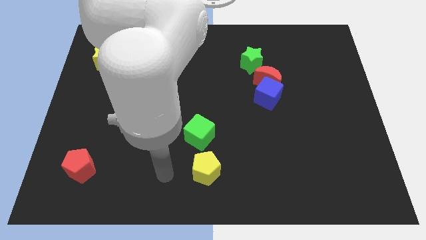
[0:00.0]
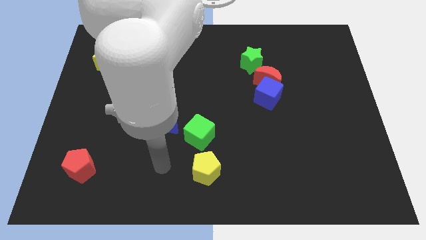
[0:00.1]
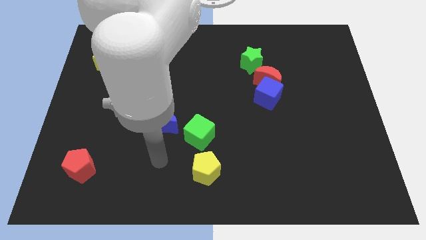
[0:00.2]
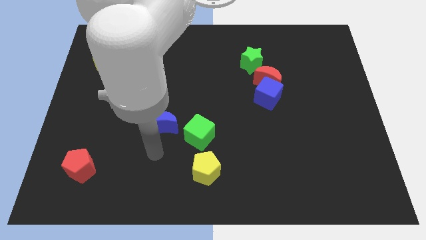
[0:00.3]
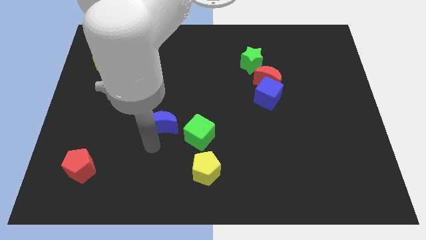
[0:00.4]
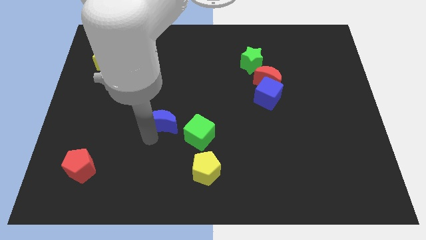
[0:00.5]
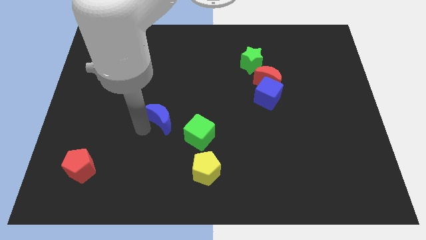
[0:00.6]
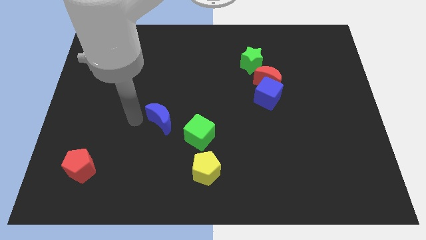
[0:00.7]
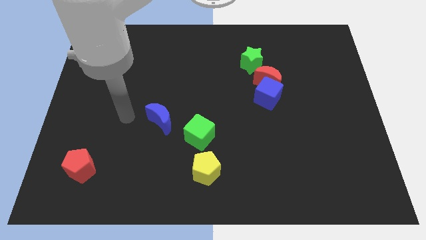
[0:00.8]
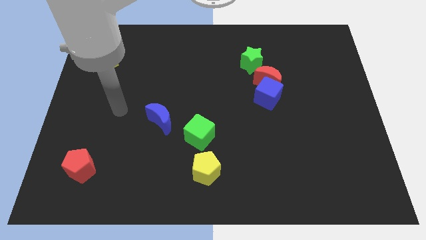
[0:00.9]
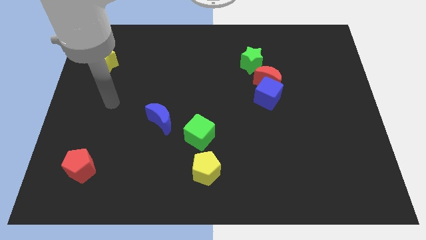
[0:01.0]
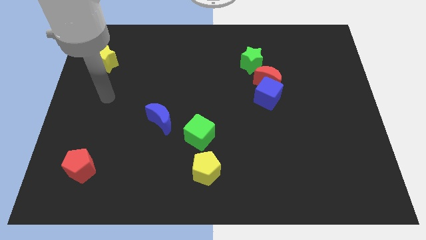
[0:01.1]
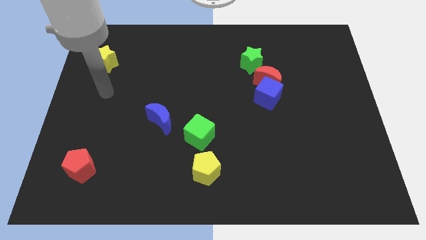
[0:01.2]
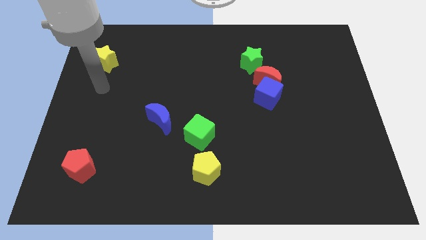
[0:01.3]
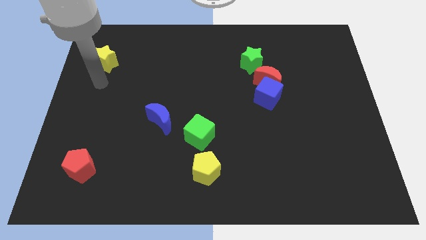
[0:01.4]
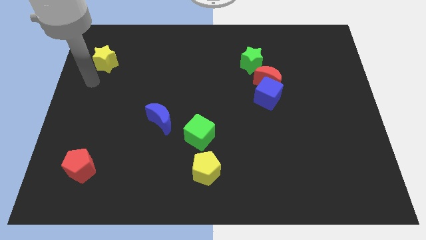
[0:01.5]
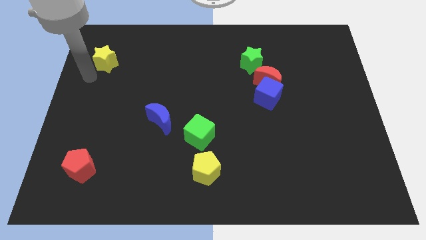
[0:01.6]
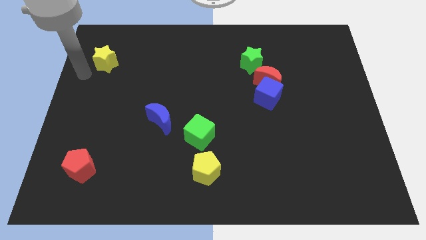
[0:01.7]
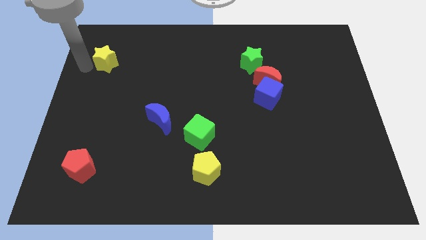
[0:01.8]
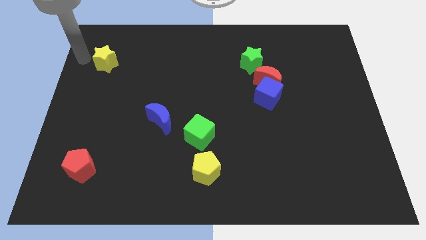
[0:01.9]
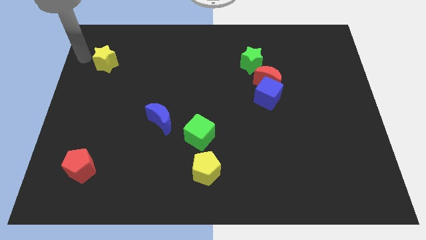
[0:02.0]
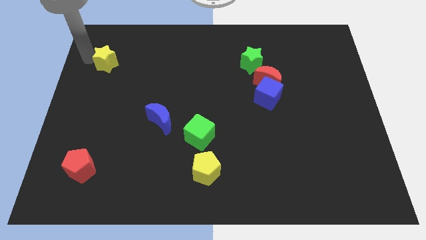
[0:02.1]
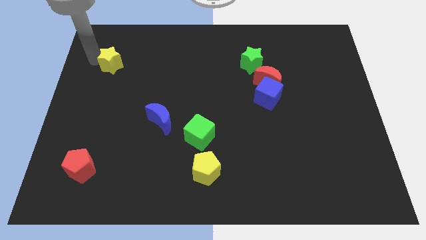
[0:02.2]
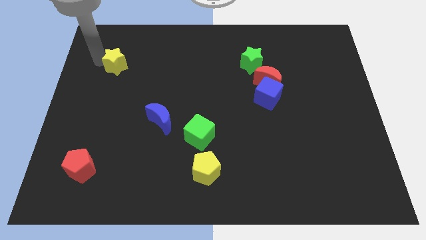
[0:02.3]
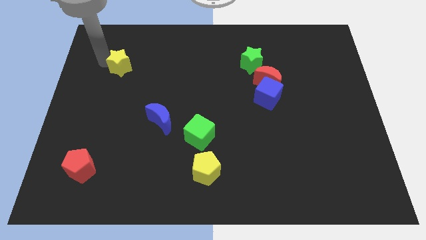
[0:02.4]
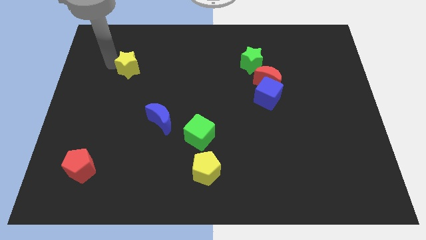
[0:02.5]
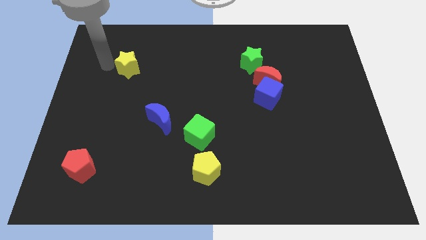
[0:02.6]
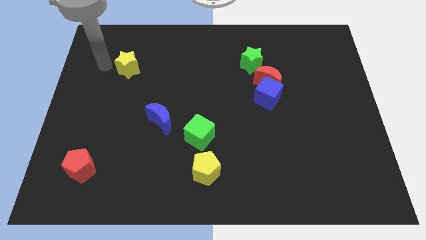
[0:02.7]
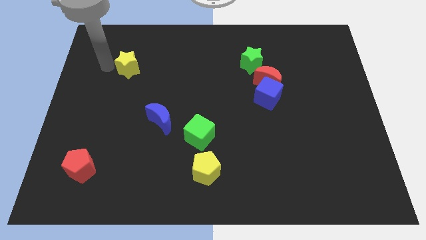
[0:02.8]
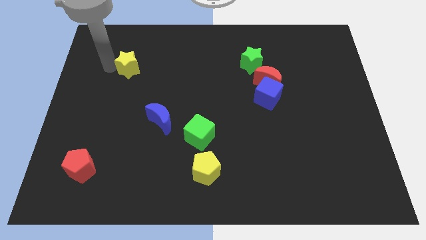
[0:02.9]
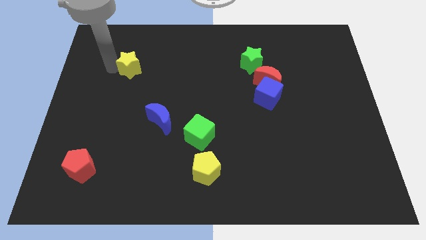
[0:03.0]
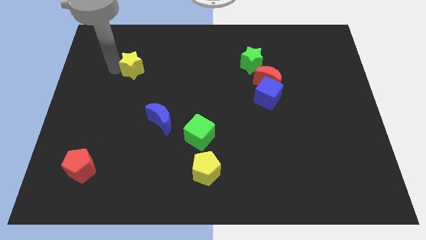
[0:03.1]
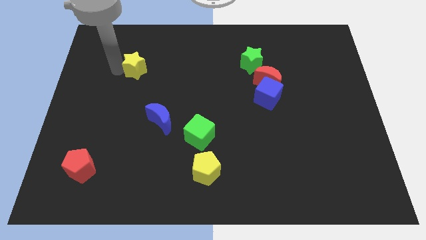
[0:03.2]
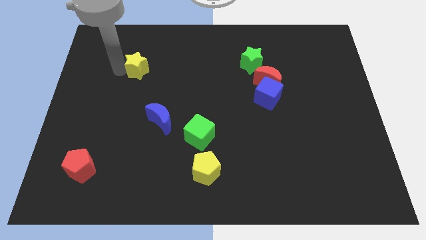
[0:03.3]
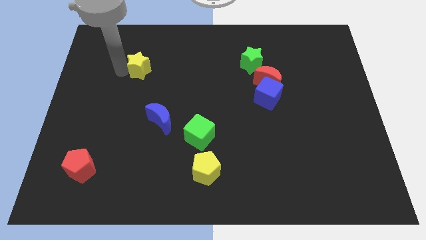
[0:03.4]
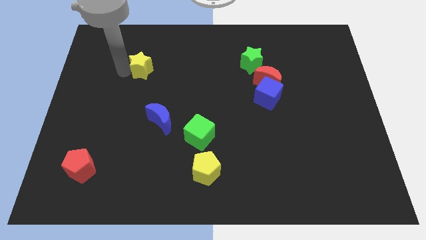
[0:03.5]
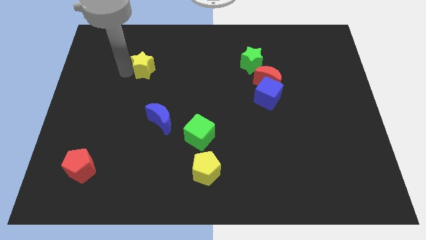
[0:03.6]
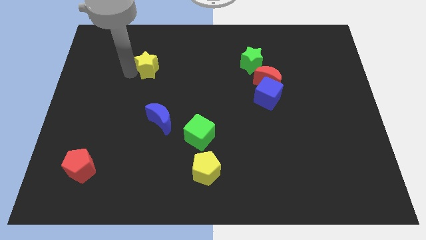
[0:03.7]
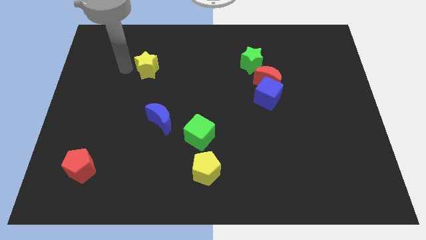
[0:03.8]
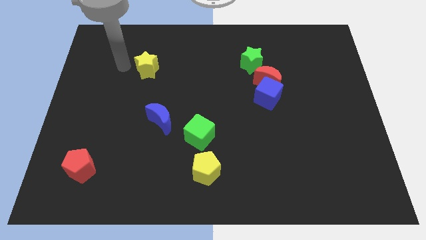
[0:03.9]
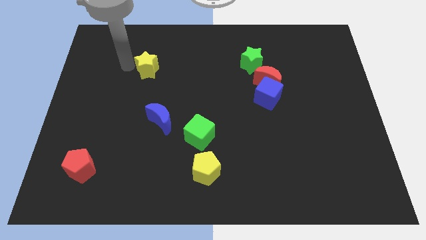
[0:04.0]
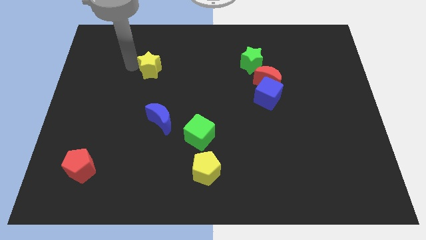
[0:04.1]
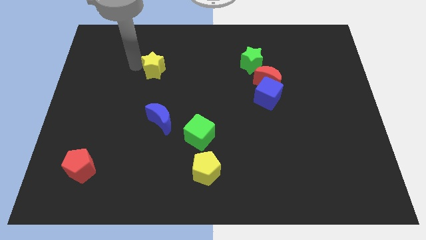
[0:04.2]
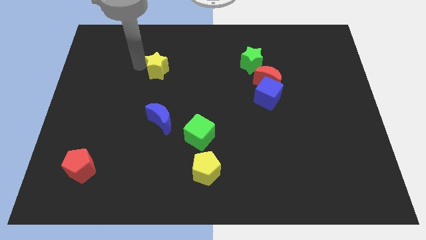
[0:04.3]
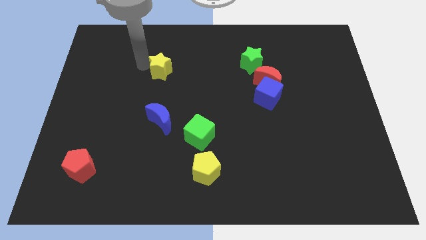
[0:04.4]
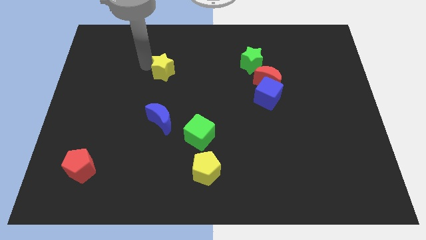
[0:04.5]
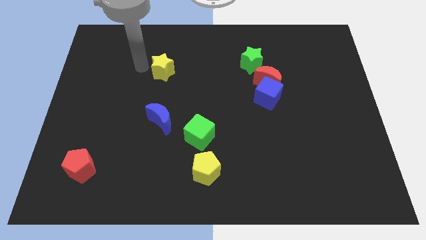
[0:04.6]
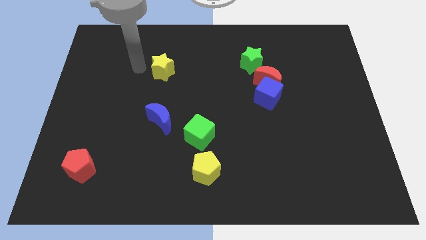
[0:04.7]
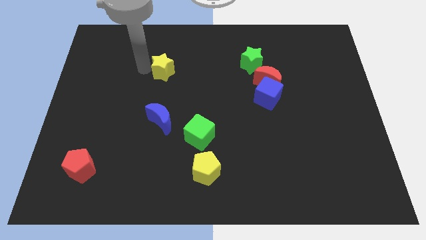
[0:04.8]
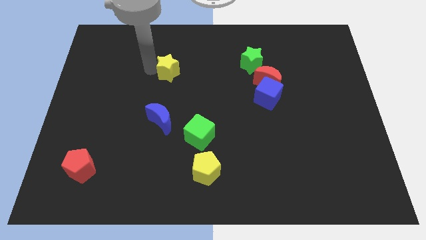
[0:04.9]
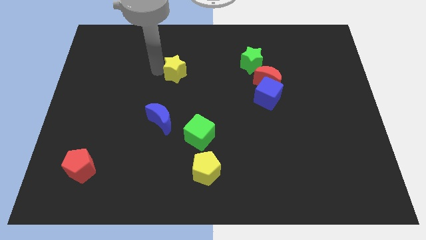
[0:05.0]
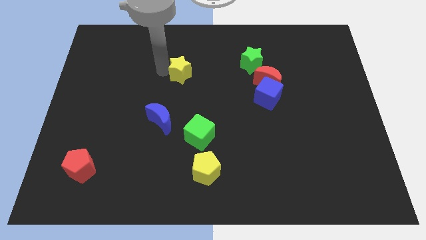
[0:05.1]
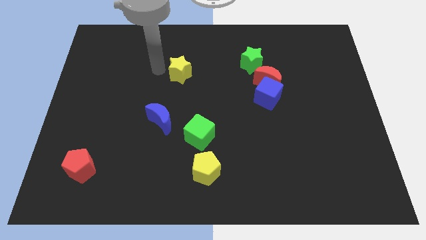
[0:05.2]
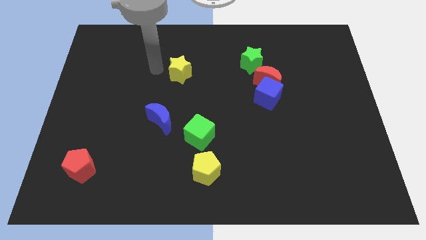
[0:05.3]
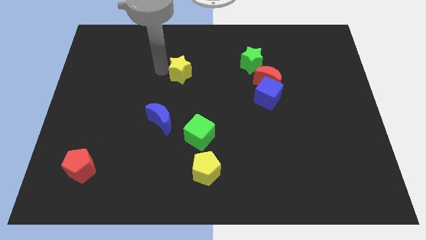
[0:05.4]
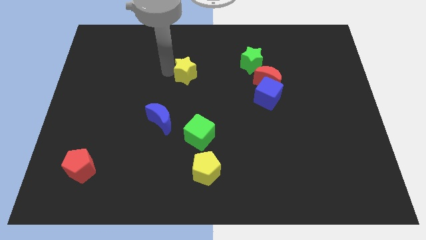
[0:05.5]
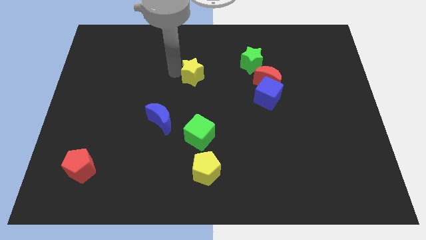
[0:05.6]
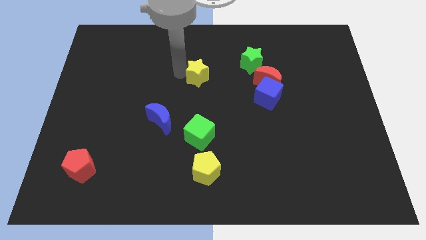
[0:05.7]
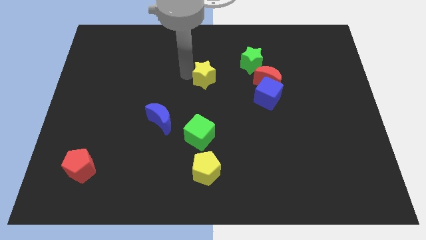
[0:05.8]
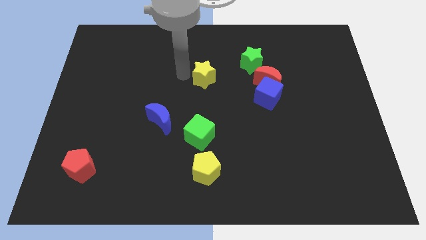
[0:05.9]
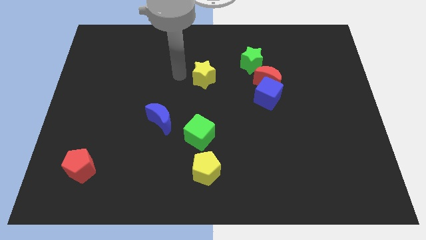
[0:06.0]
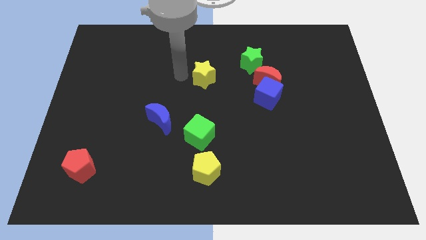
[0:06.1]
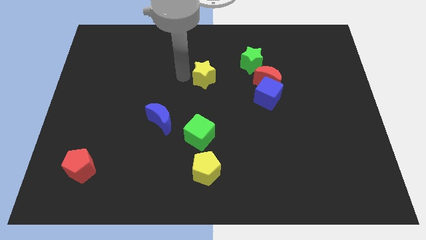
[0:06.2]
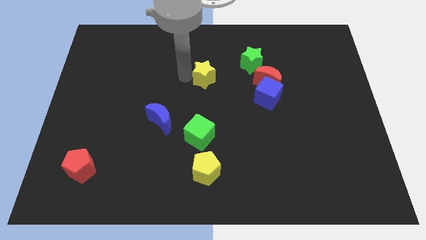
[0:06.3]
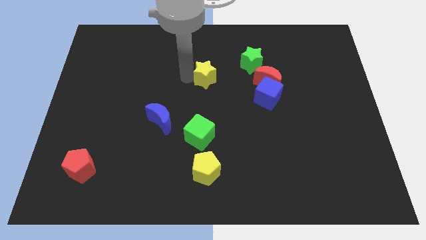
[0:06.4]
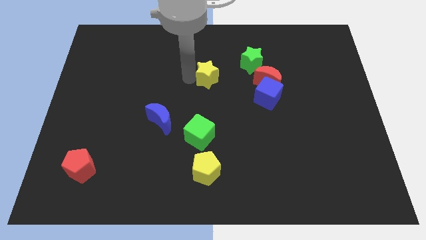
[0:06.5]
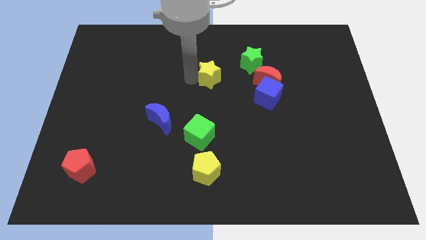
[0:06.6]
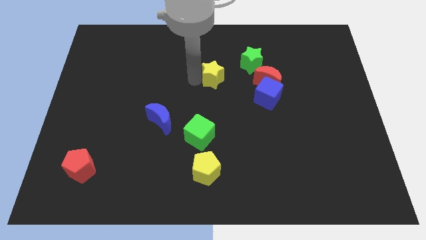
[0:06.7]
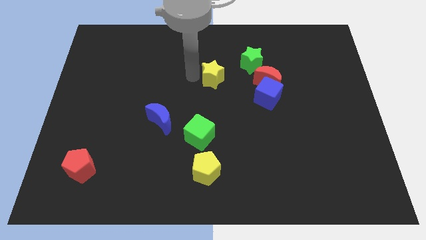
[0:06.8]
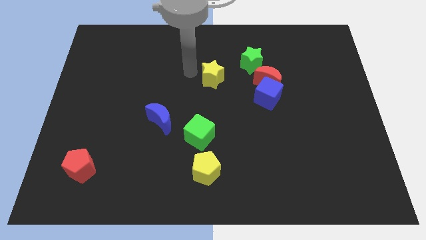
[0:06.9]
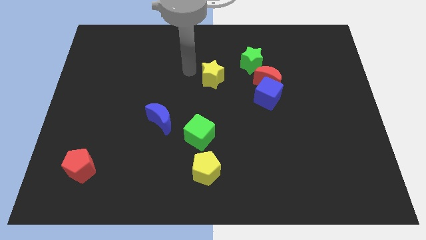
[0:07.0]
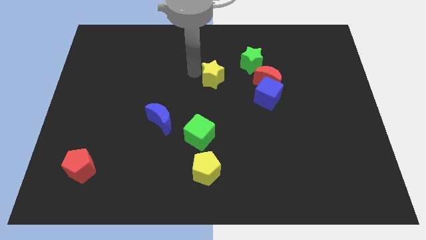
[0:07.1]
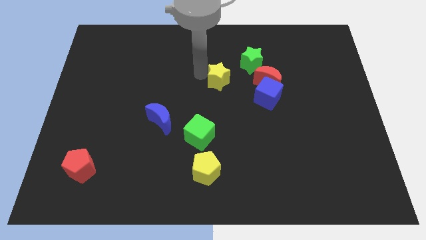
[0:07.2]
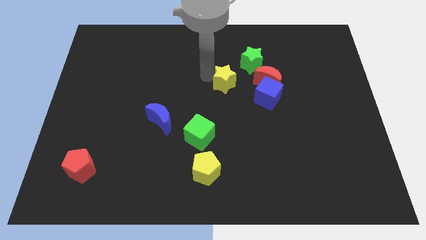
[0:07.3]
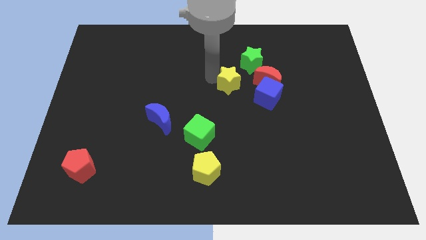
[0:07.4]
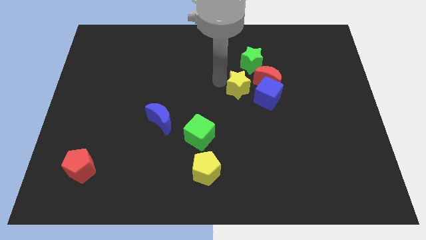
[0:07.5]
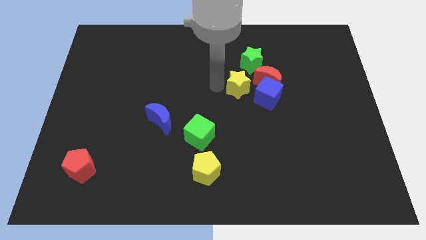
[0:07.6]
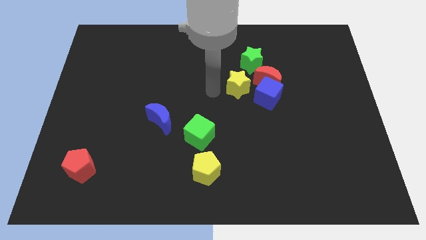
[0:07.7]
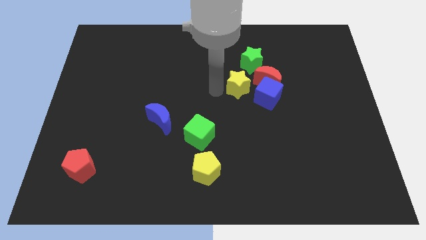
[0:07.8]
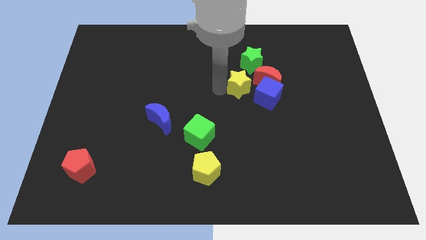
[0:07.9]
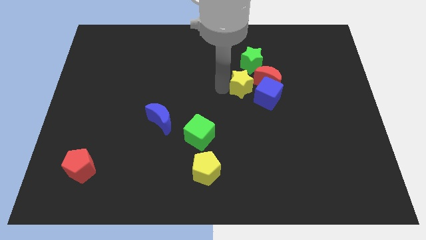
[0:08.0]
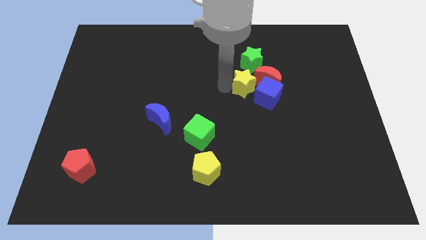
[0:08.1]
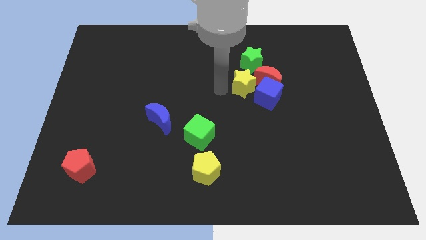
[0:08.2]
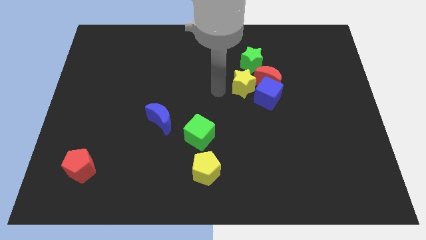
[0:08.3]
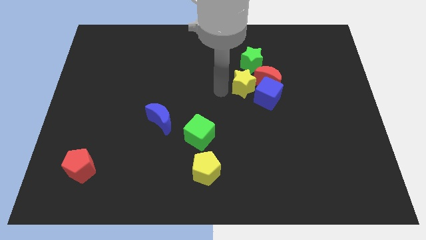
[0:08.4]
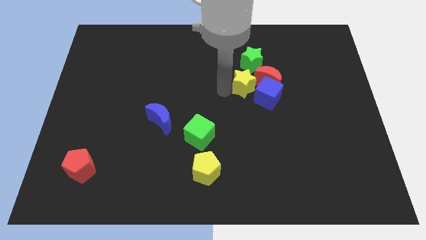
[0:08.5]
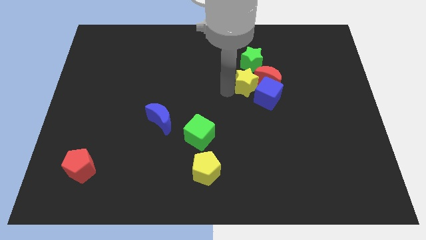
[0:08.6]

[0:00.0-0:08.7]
push the yellow star towards the red moon
